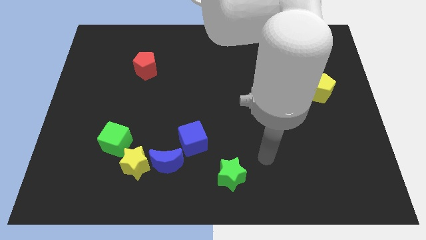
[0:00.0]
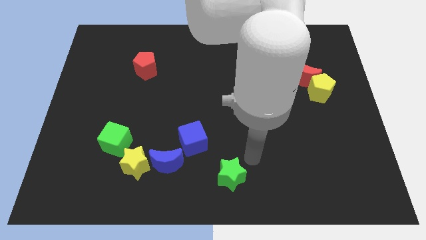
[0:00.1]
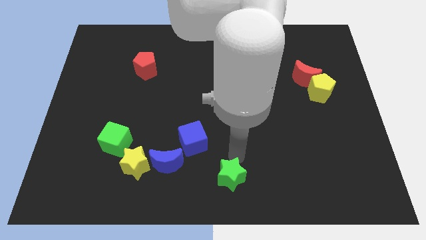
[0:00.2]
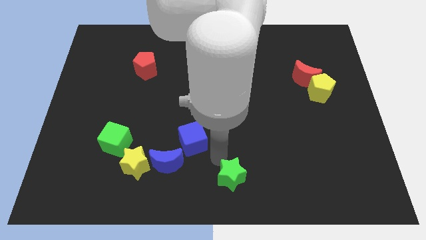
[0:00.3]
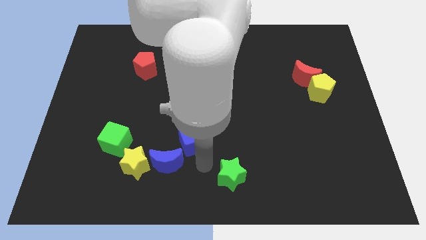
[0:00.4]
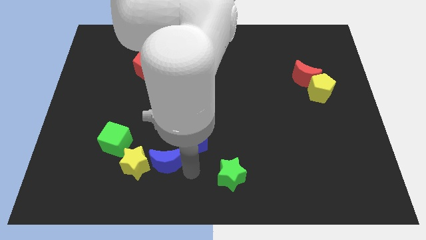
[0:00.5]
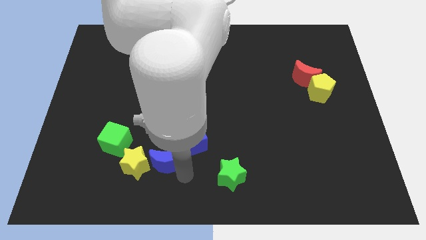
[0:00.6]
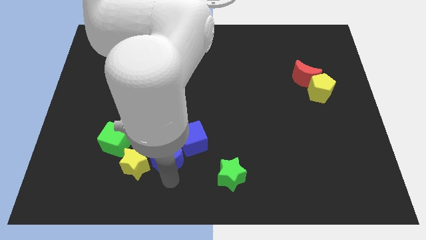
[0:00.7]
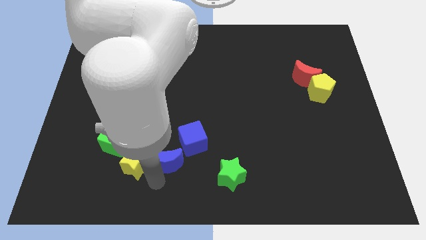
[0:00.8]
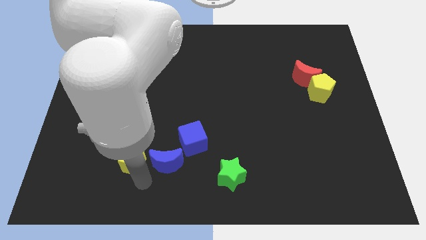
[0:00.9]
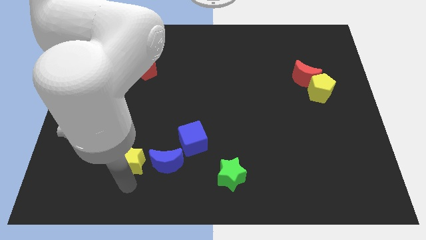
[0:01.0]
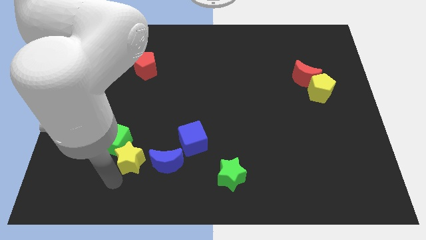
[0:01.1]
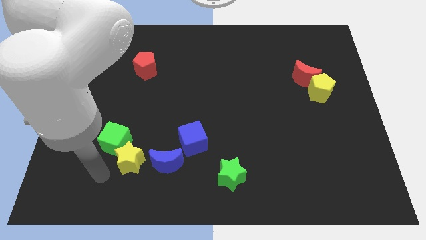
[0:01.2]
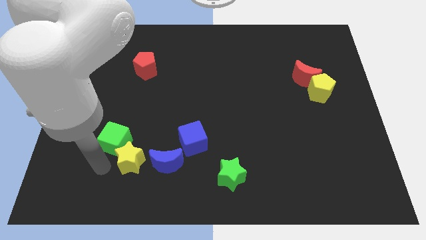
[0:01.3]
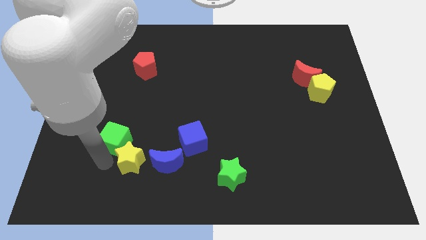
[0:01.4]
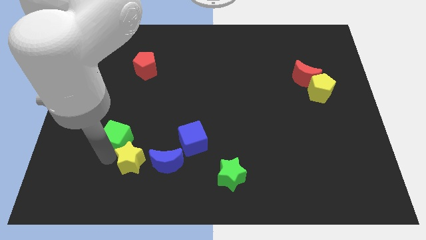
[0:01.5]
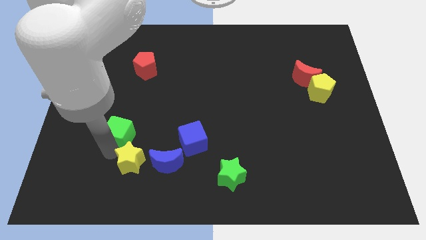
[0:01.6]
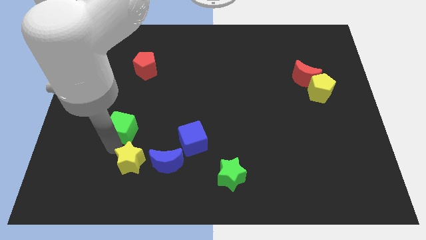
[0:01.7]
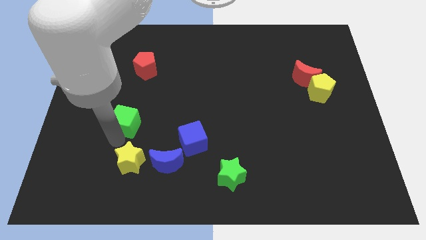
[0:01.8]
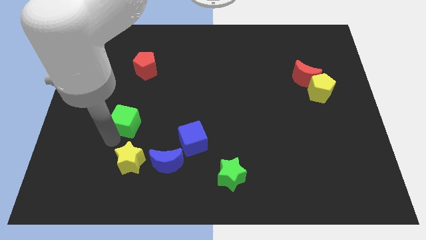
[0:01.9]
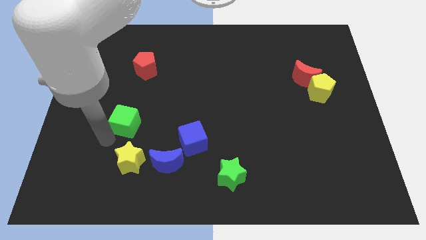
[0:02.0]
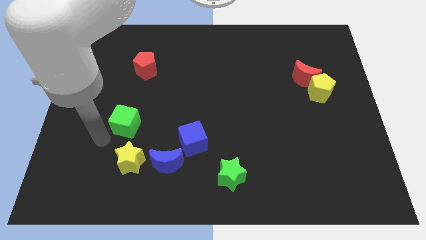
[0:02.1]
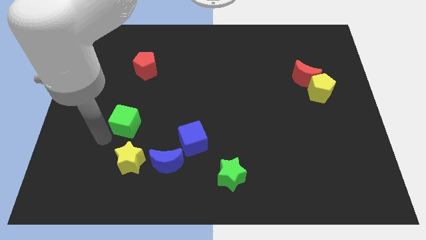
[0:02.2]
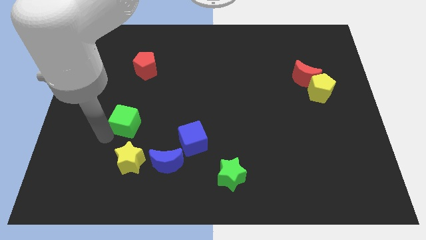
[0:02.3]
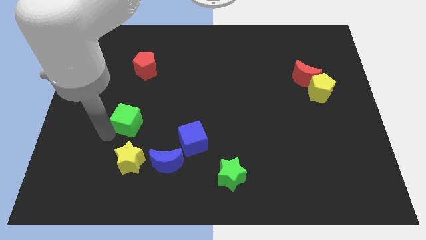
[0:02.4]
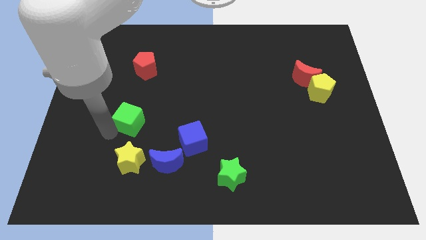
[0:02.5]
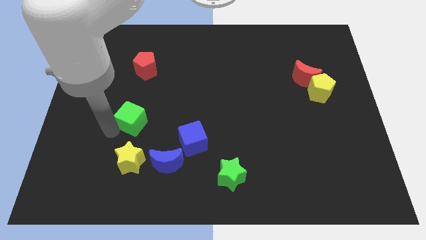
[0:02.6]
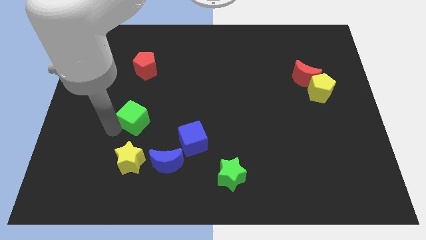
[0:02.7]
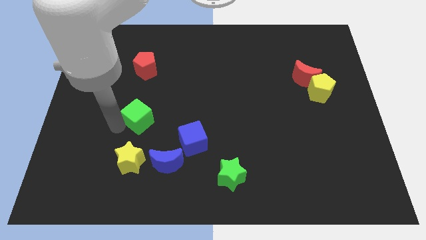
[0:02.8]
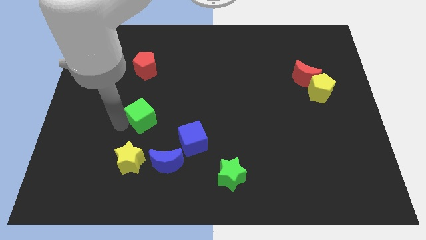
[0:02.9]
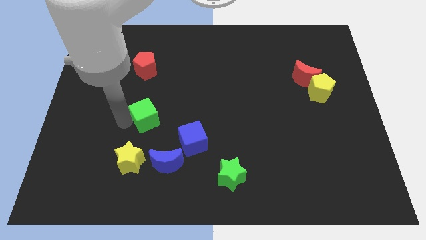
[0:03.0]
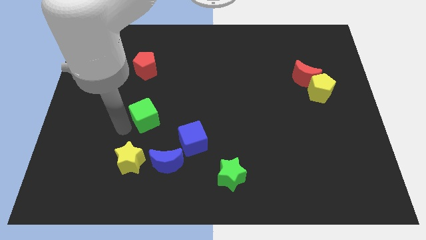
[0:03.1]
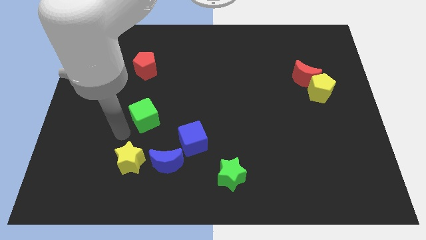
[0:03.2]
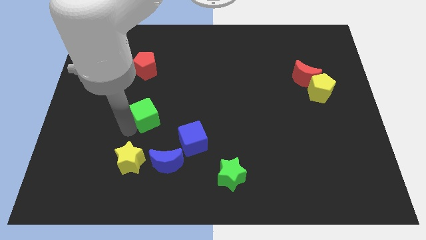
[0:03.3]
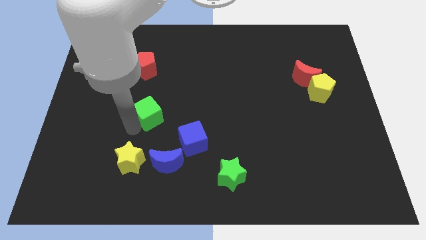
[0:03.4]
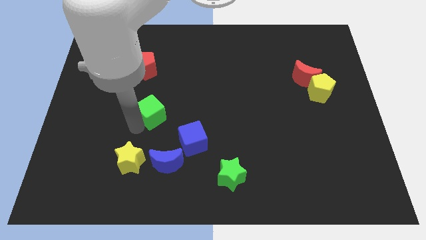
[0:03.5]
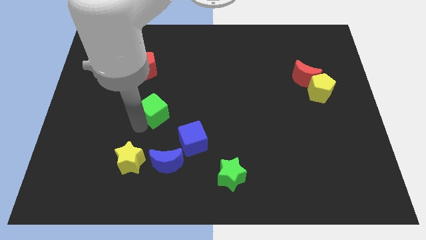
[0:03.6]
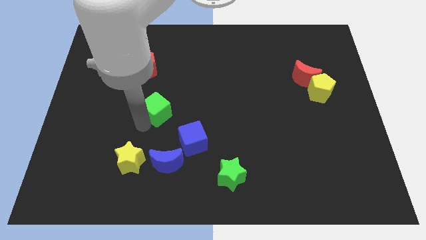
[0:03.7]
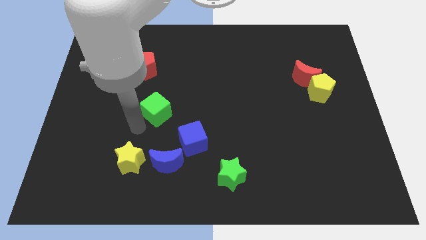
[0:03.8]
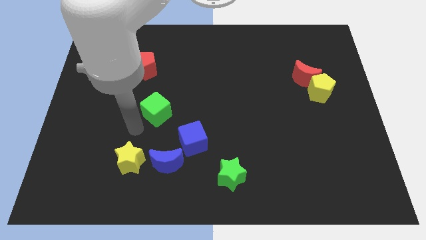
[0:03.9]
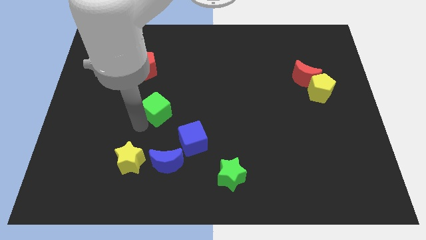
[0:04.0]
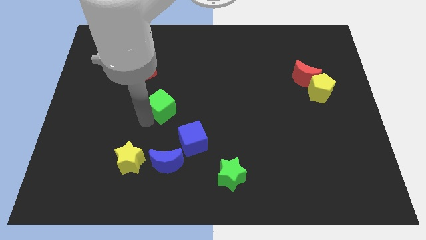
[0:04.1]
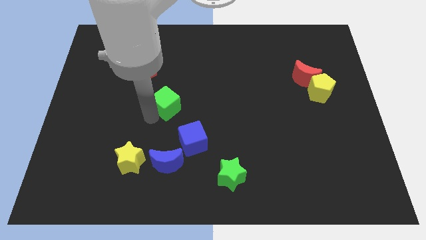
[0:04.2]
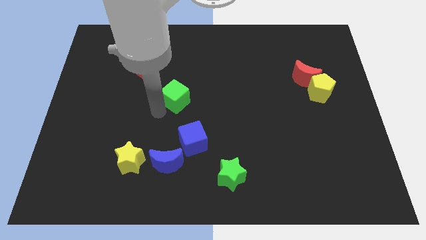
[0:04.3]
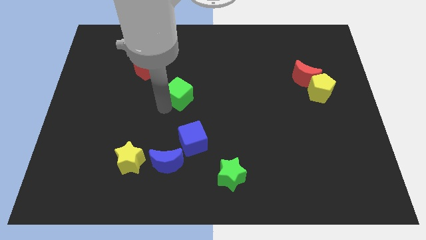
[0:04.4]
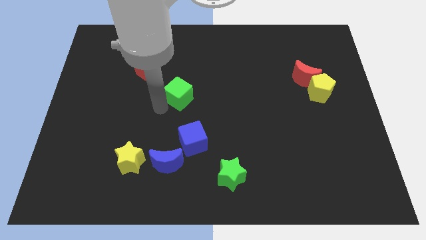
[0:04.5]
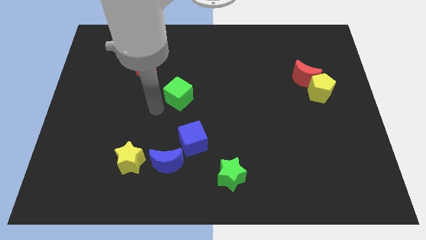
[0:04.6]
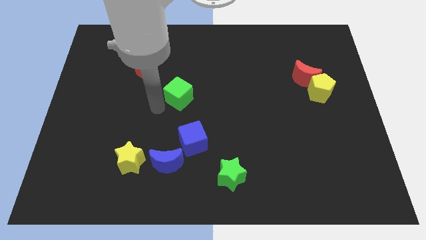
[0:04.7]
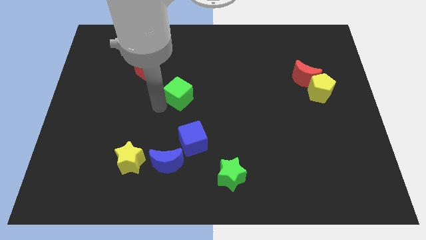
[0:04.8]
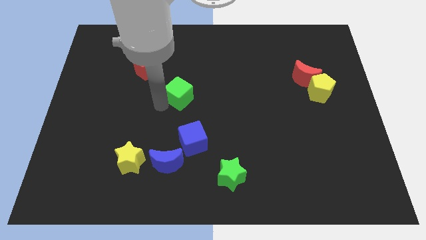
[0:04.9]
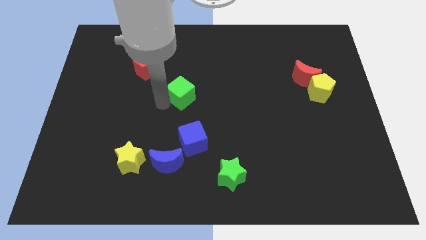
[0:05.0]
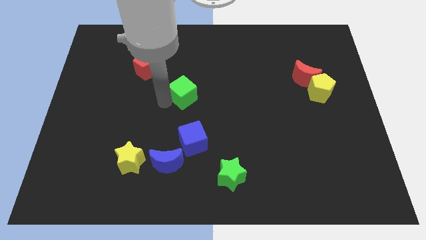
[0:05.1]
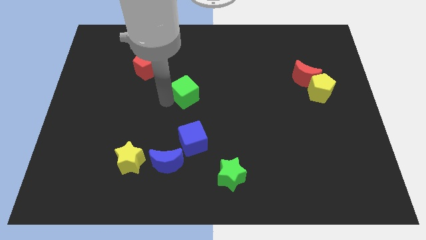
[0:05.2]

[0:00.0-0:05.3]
push the green cube up and to the right

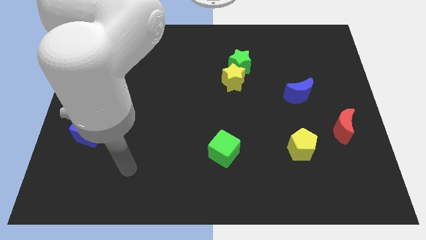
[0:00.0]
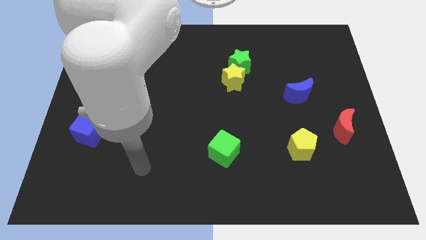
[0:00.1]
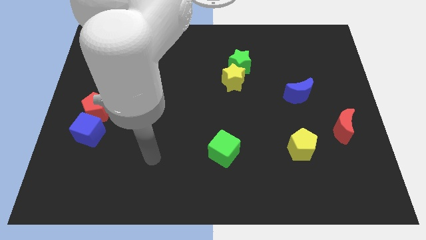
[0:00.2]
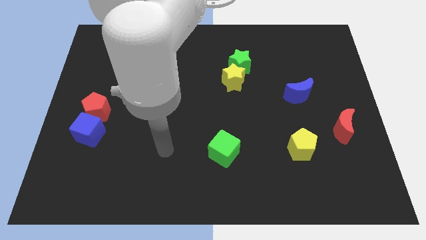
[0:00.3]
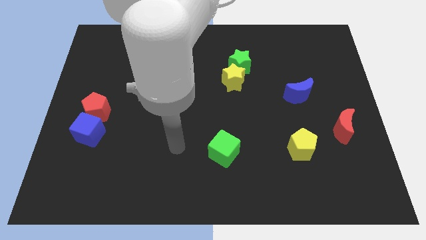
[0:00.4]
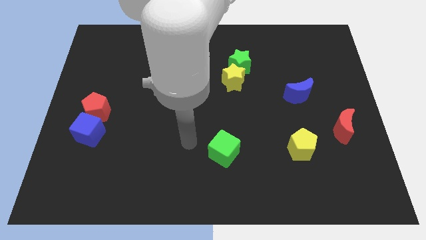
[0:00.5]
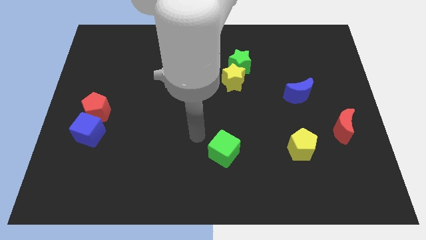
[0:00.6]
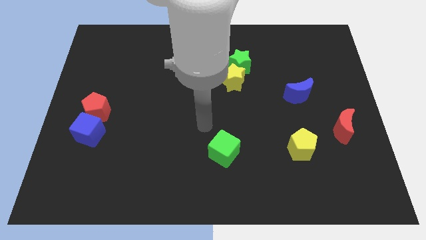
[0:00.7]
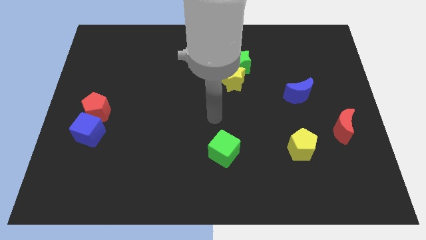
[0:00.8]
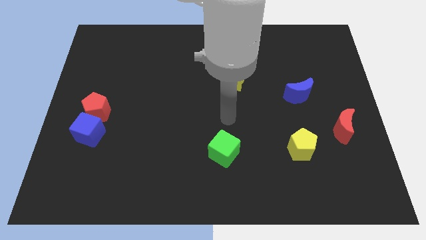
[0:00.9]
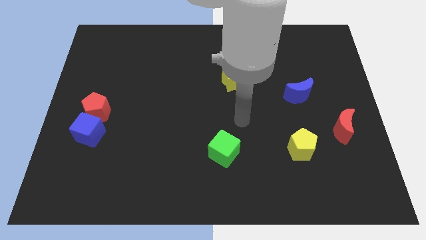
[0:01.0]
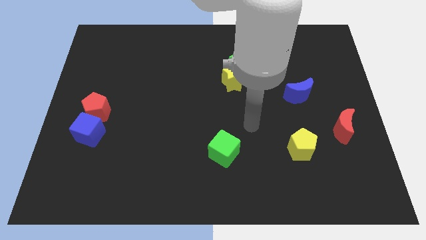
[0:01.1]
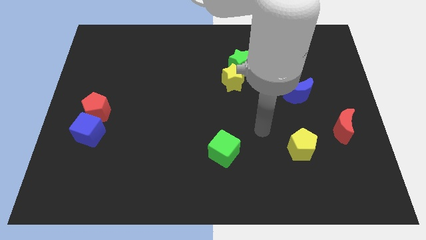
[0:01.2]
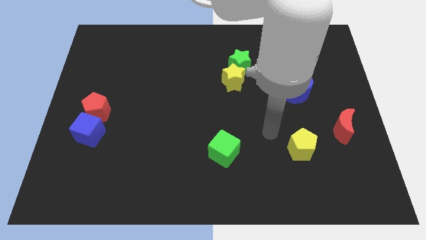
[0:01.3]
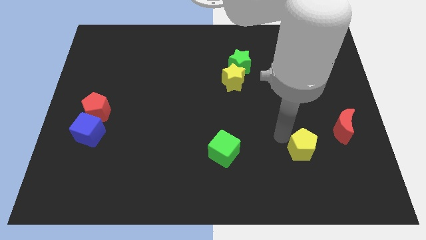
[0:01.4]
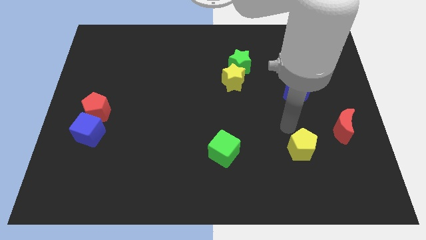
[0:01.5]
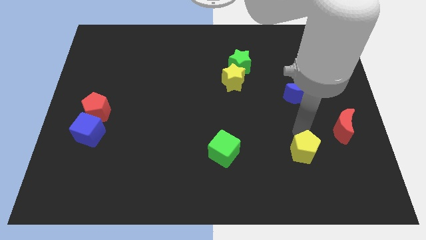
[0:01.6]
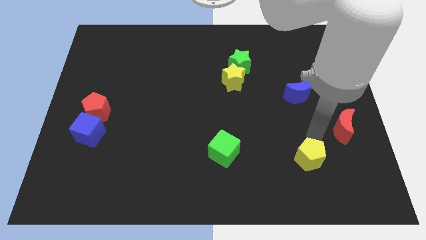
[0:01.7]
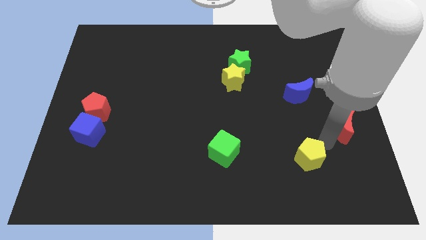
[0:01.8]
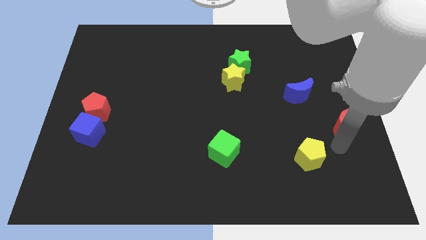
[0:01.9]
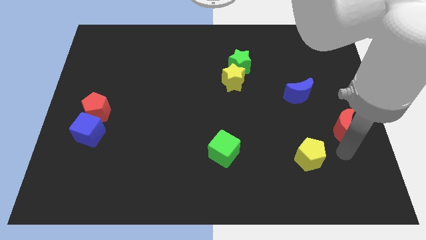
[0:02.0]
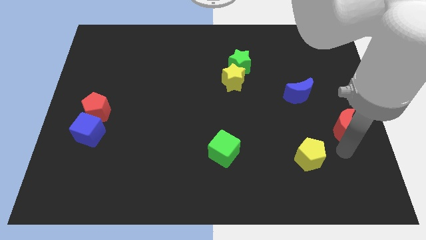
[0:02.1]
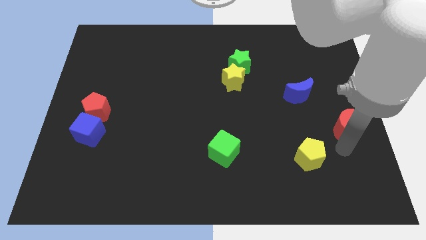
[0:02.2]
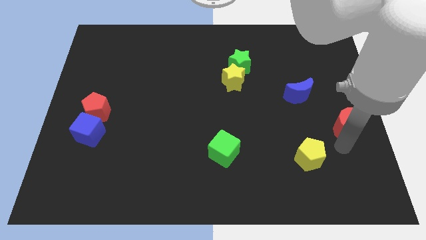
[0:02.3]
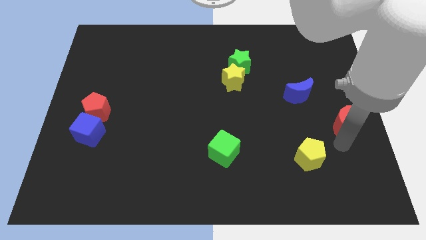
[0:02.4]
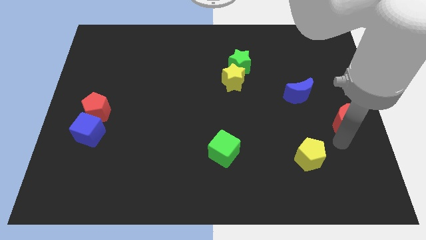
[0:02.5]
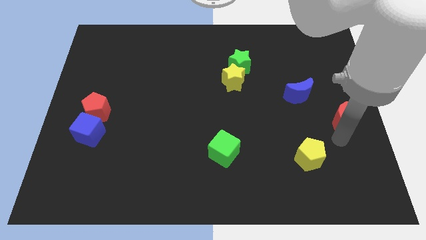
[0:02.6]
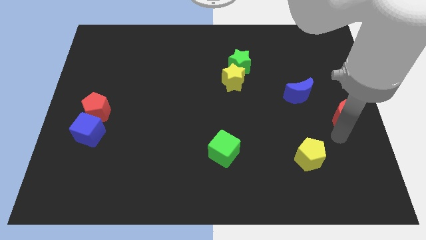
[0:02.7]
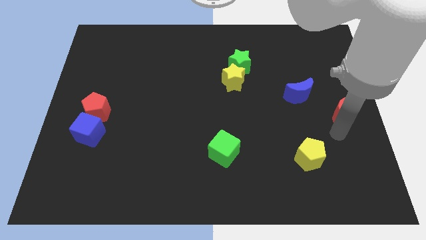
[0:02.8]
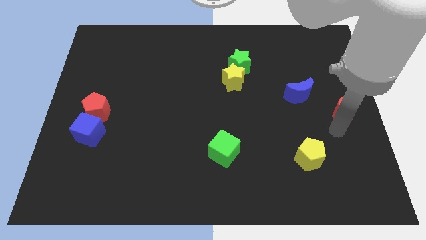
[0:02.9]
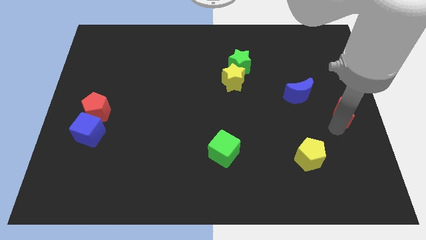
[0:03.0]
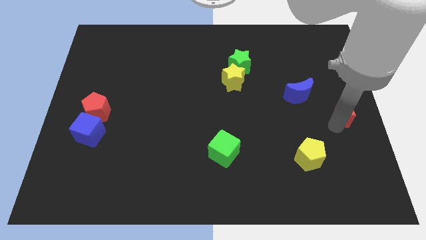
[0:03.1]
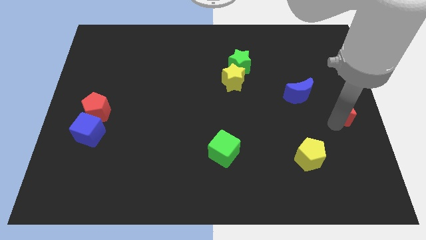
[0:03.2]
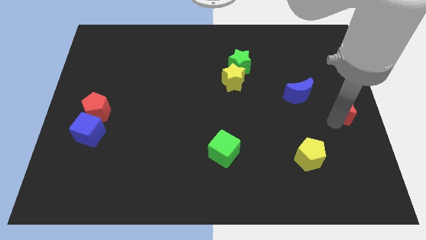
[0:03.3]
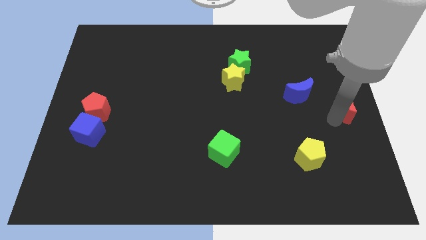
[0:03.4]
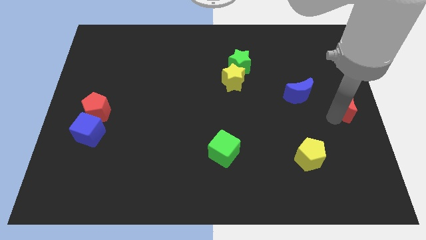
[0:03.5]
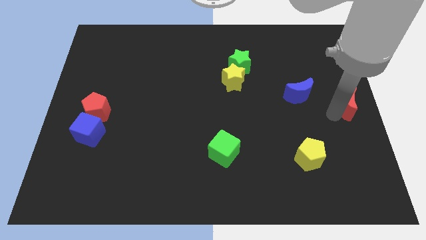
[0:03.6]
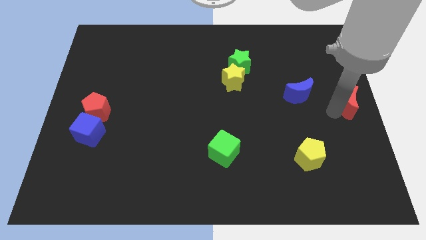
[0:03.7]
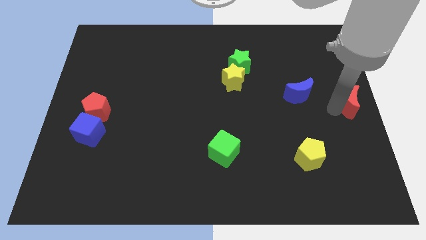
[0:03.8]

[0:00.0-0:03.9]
move the red moon a bit up
